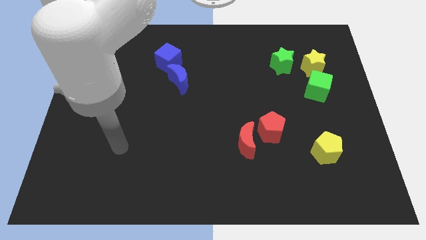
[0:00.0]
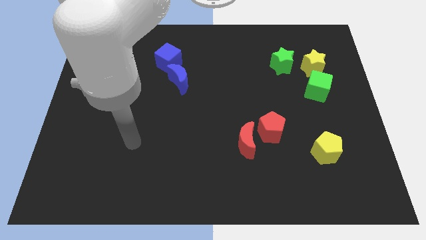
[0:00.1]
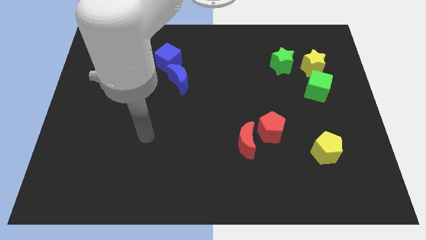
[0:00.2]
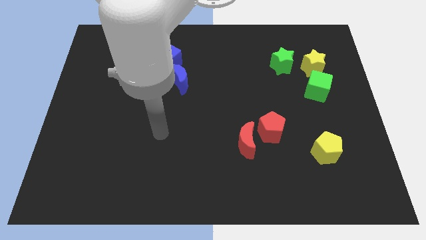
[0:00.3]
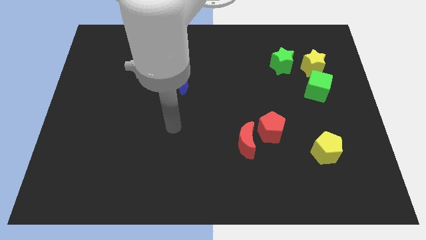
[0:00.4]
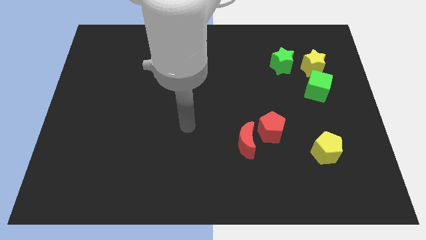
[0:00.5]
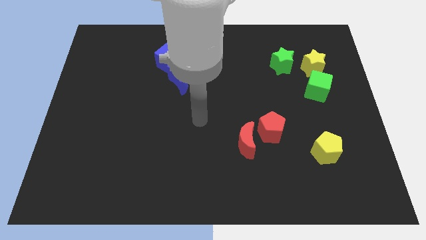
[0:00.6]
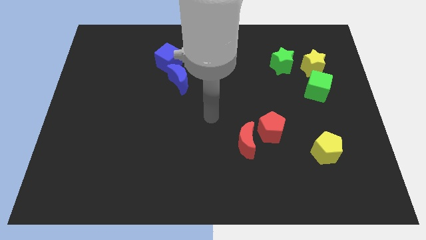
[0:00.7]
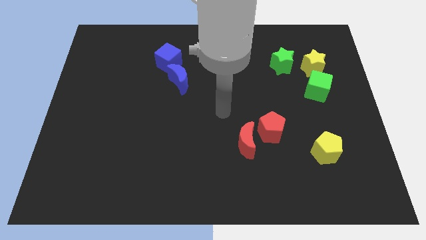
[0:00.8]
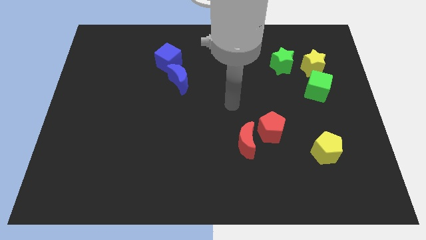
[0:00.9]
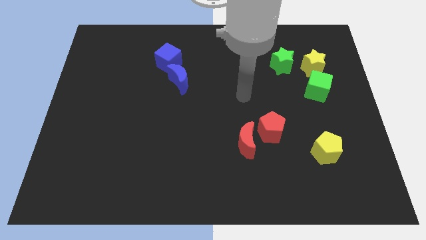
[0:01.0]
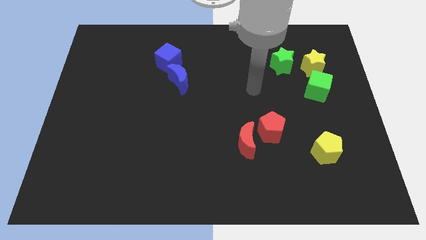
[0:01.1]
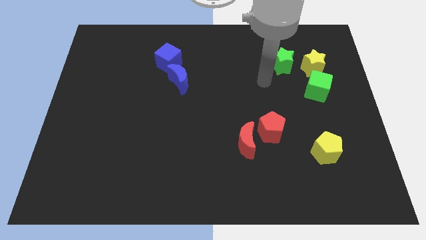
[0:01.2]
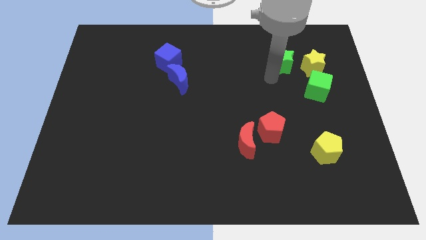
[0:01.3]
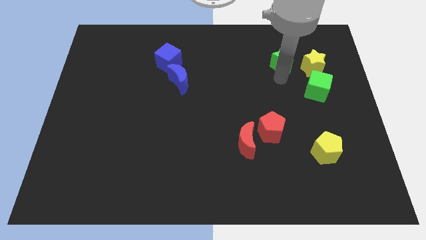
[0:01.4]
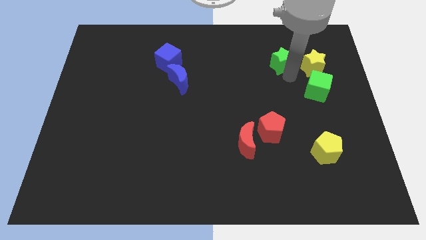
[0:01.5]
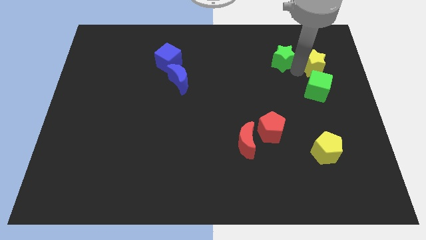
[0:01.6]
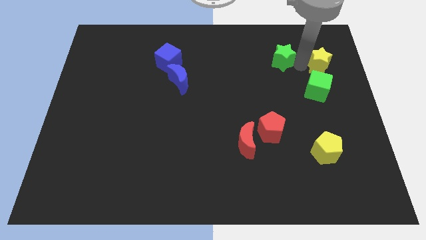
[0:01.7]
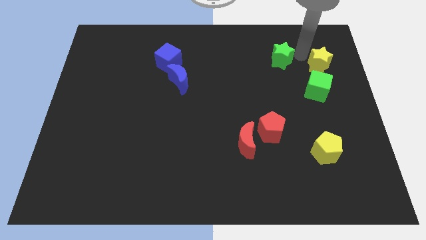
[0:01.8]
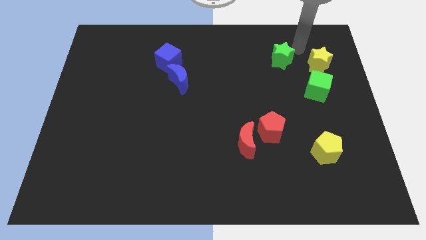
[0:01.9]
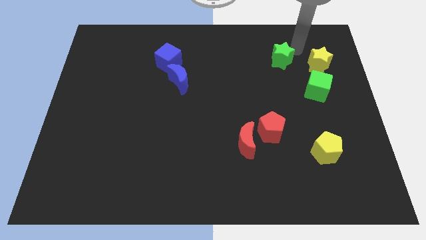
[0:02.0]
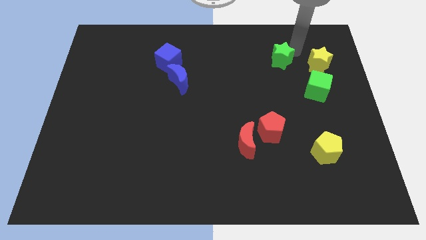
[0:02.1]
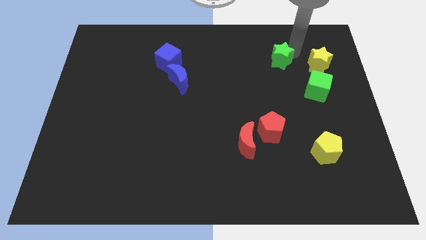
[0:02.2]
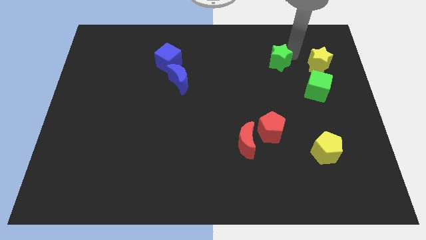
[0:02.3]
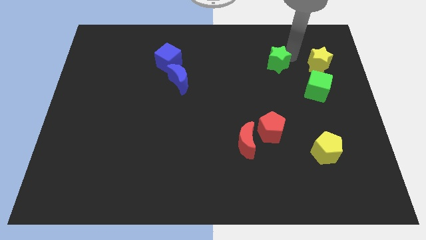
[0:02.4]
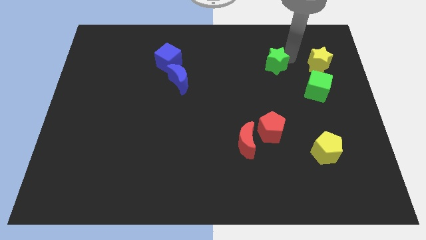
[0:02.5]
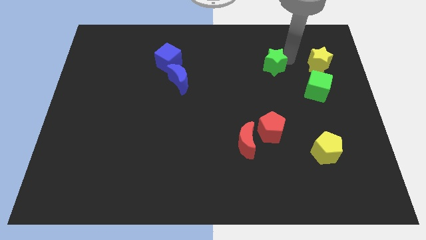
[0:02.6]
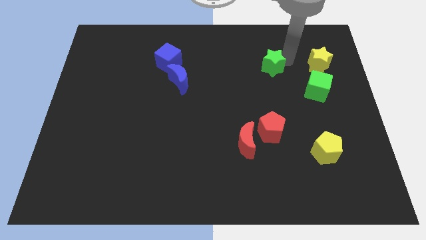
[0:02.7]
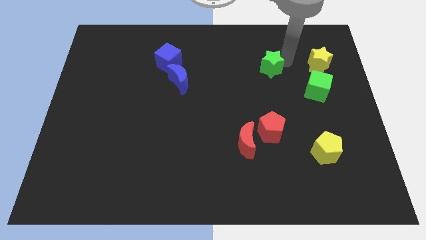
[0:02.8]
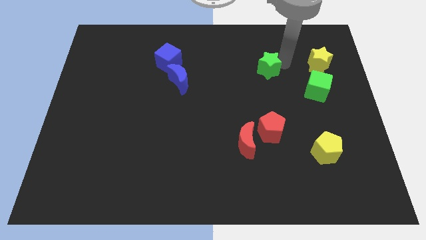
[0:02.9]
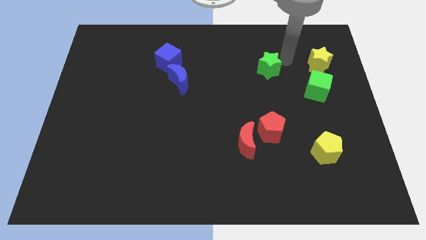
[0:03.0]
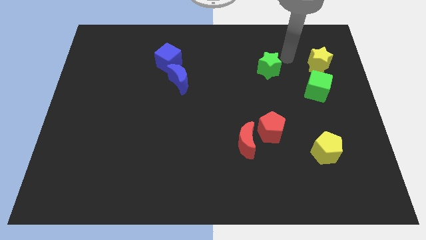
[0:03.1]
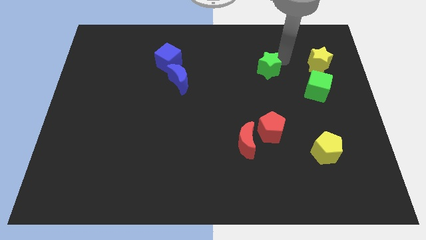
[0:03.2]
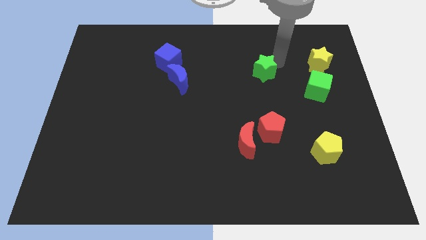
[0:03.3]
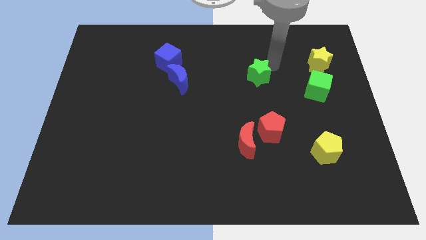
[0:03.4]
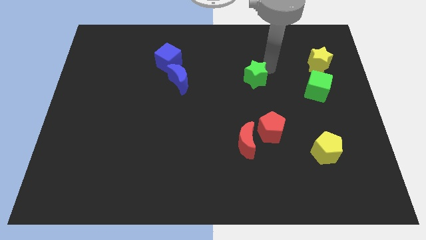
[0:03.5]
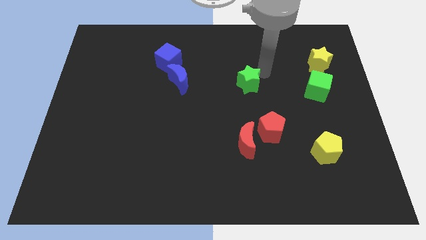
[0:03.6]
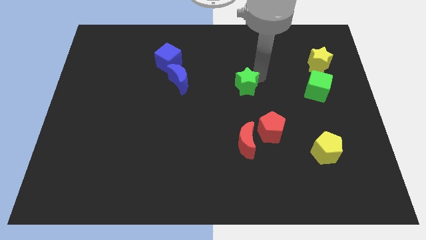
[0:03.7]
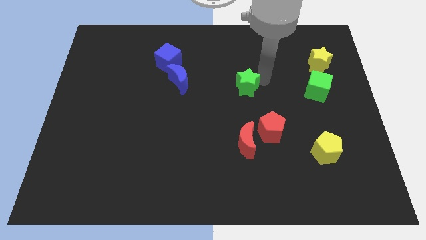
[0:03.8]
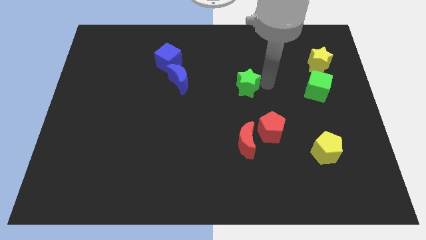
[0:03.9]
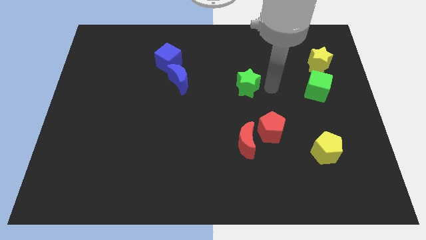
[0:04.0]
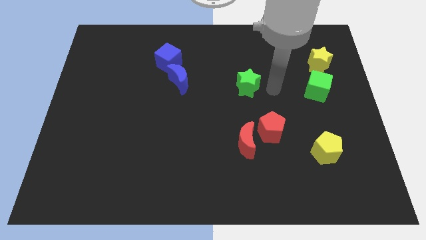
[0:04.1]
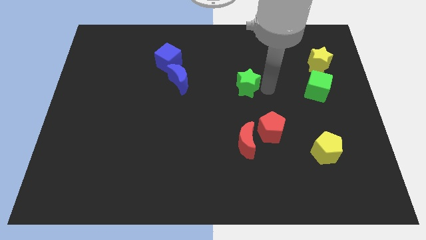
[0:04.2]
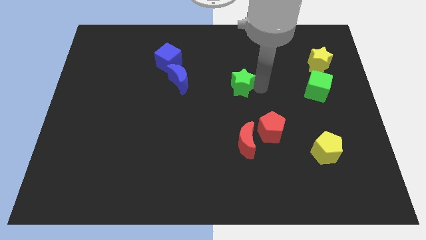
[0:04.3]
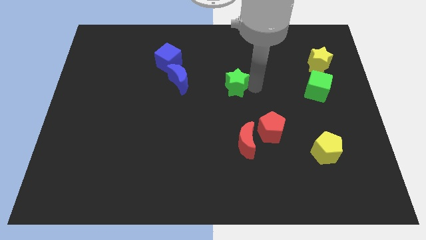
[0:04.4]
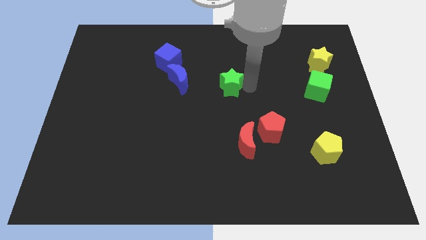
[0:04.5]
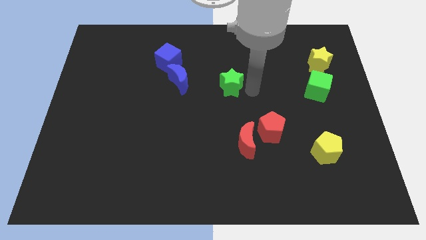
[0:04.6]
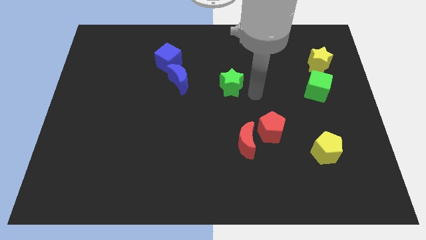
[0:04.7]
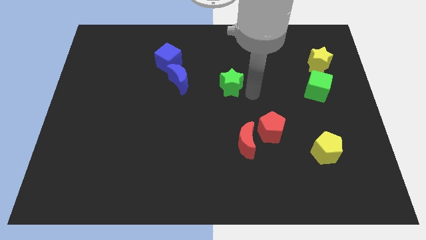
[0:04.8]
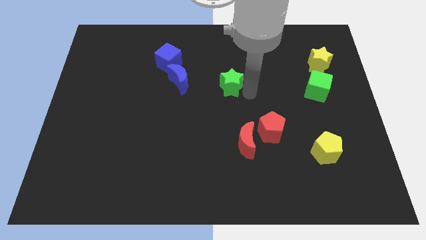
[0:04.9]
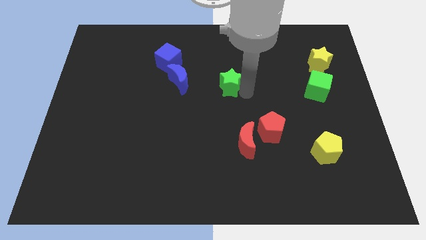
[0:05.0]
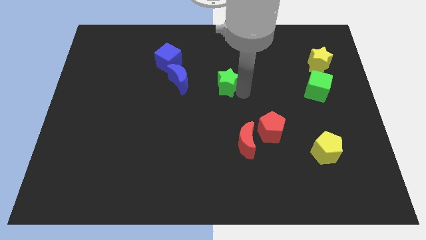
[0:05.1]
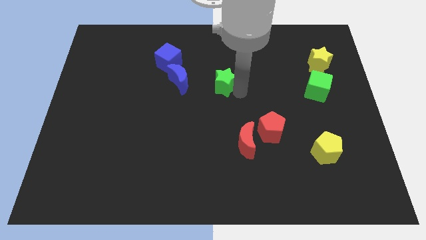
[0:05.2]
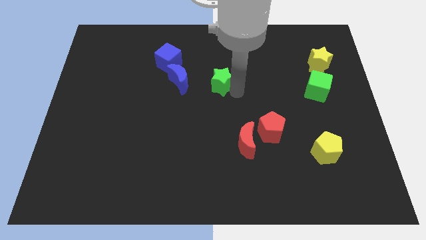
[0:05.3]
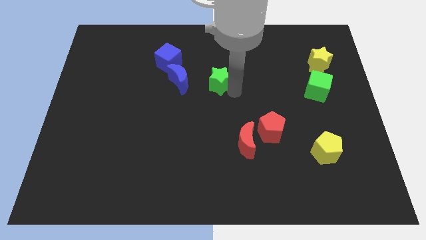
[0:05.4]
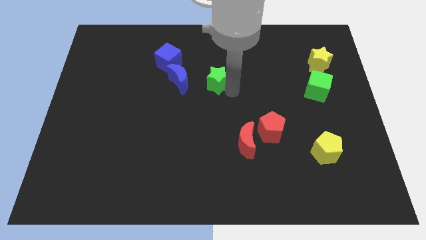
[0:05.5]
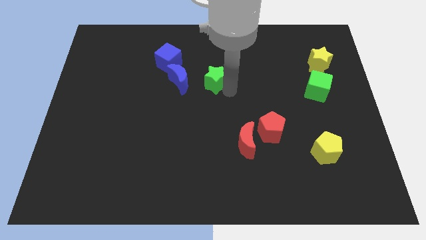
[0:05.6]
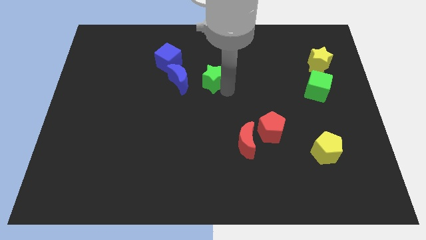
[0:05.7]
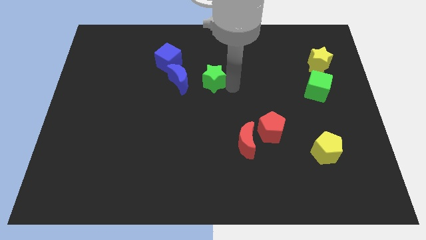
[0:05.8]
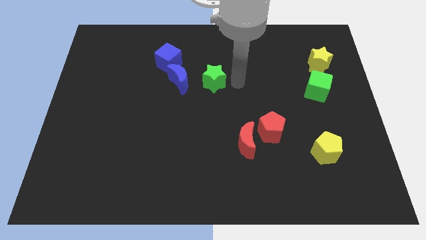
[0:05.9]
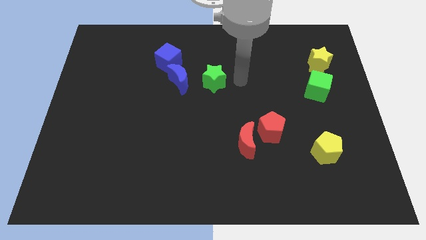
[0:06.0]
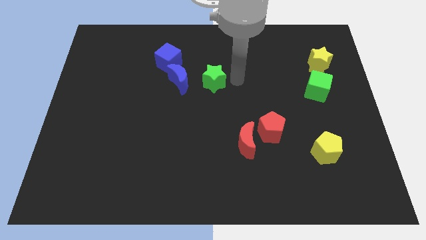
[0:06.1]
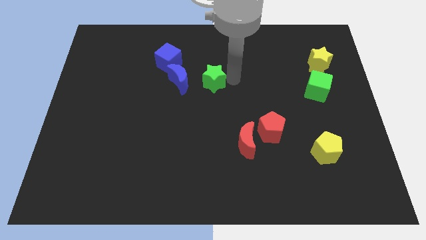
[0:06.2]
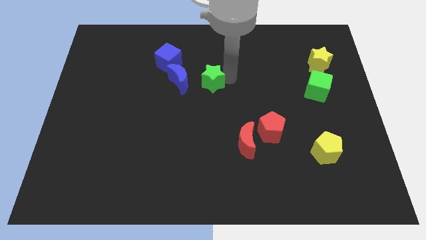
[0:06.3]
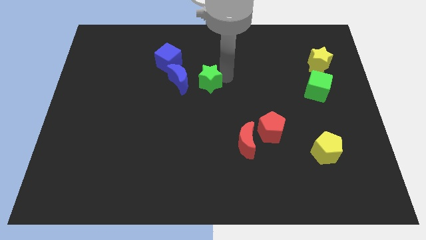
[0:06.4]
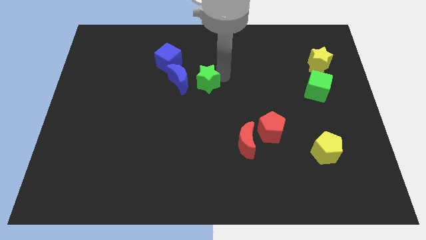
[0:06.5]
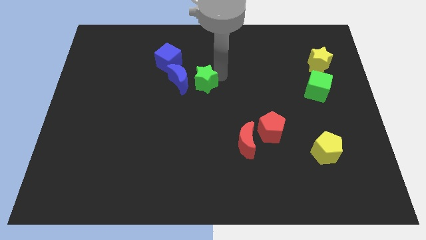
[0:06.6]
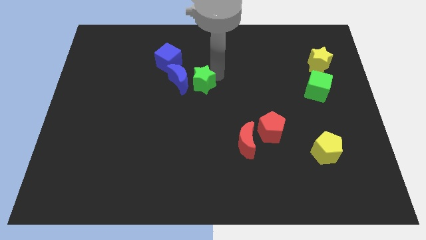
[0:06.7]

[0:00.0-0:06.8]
put the green star to the blue moon

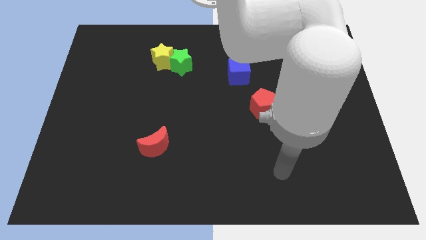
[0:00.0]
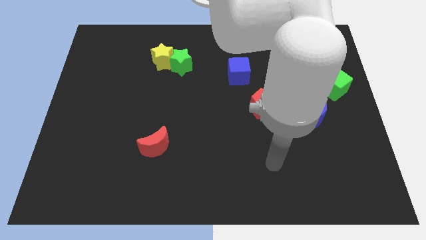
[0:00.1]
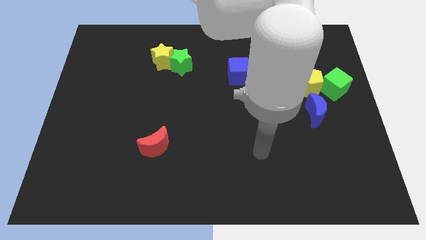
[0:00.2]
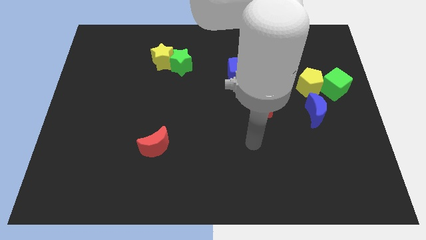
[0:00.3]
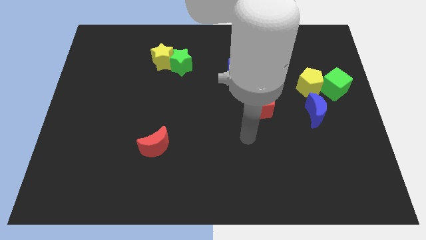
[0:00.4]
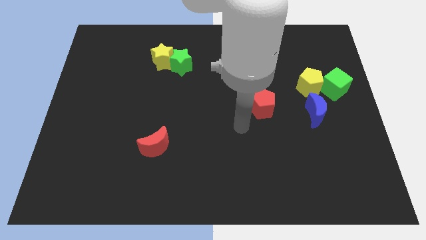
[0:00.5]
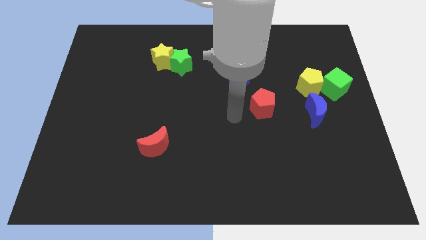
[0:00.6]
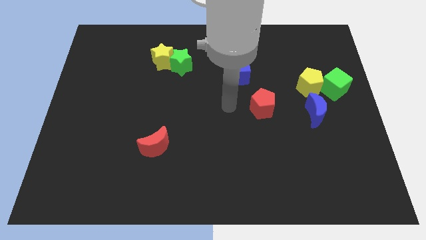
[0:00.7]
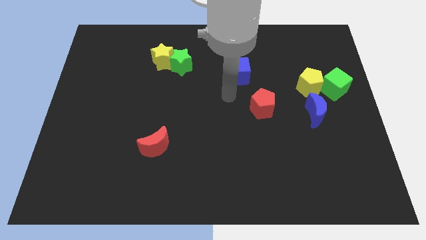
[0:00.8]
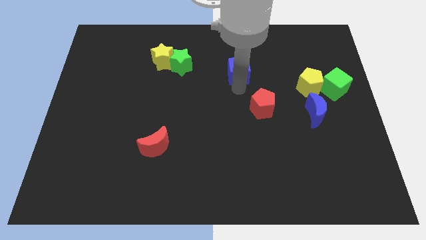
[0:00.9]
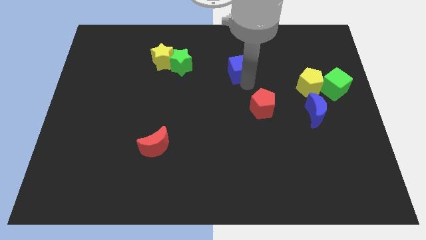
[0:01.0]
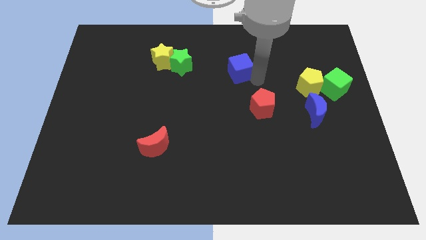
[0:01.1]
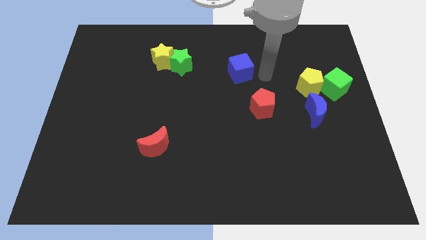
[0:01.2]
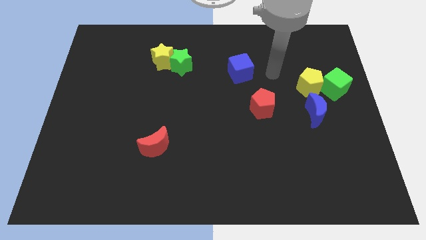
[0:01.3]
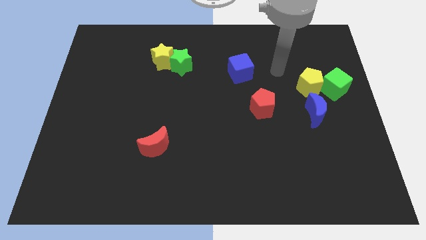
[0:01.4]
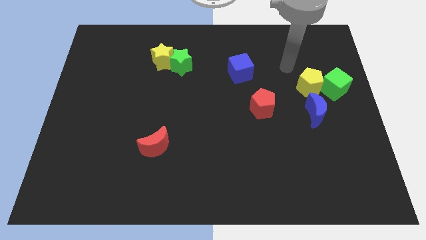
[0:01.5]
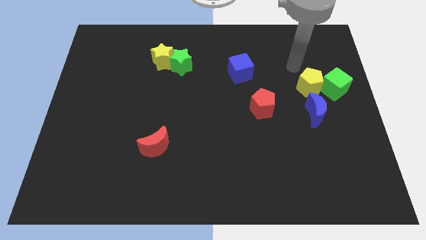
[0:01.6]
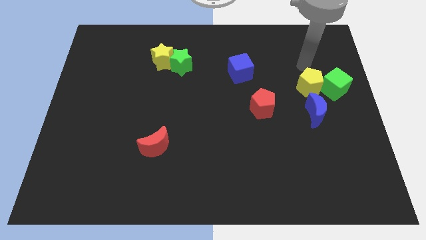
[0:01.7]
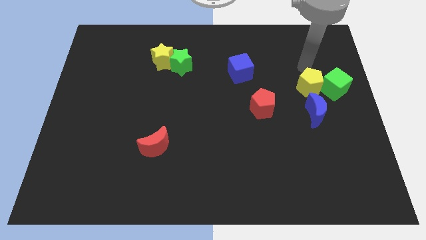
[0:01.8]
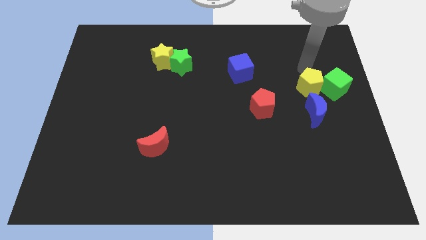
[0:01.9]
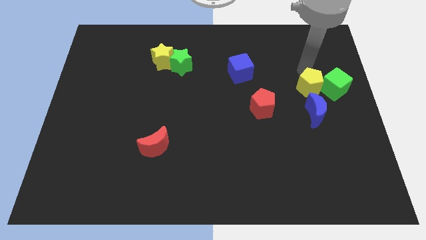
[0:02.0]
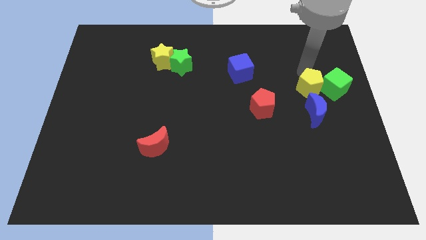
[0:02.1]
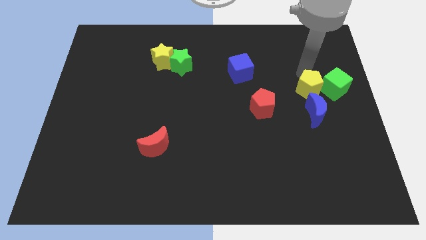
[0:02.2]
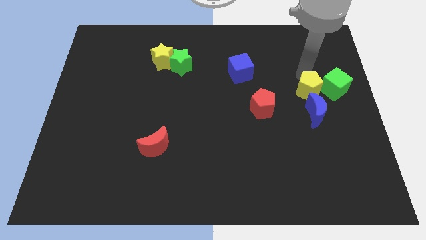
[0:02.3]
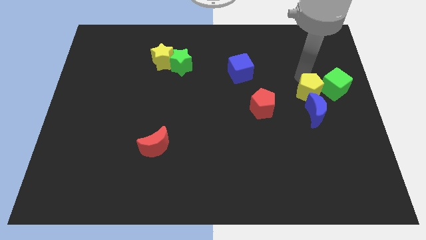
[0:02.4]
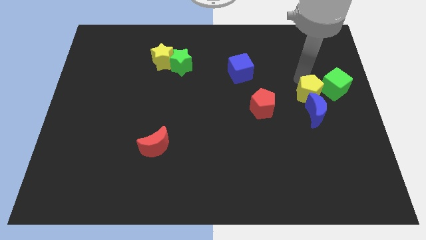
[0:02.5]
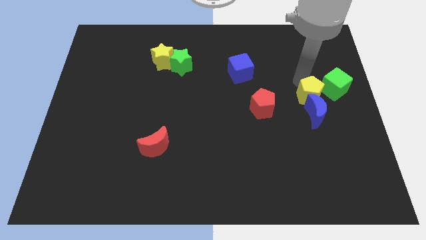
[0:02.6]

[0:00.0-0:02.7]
put the yellow pentagon to the blue moon
